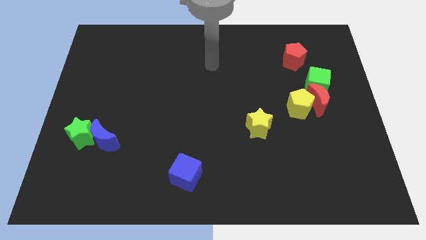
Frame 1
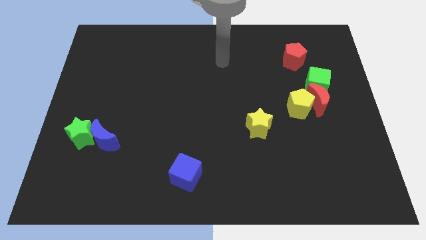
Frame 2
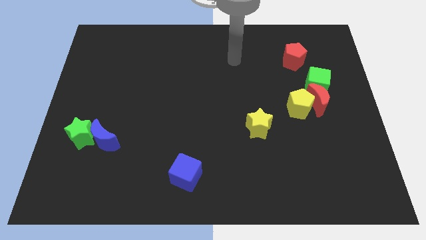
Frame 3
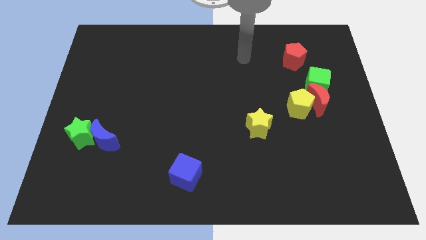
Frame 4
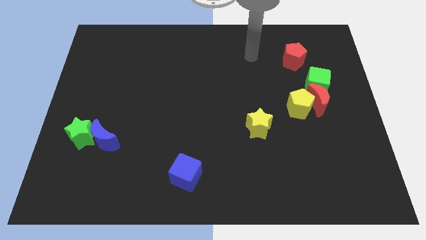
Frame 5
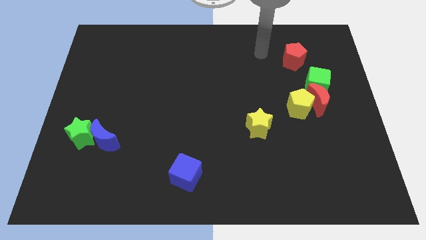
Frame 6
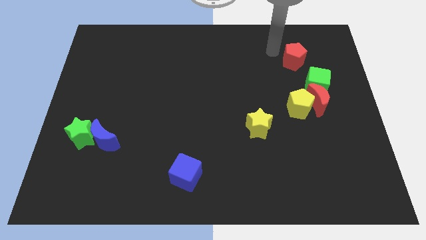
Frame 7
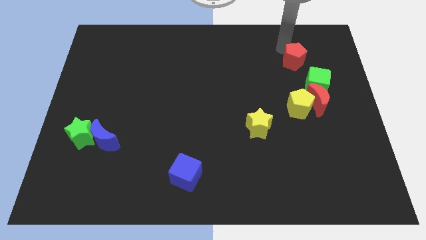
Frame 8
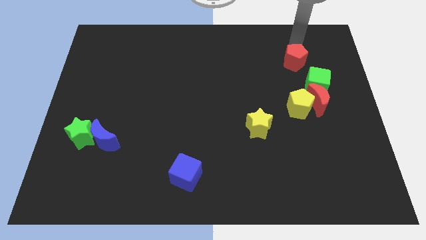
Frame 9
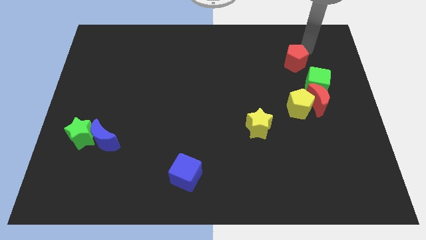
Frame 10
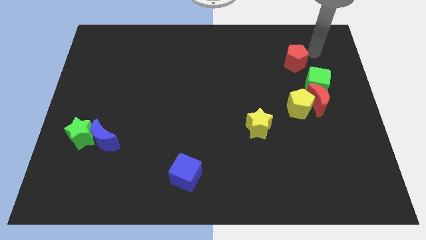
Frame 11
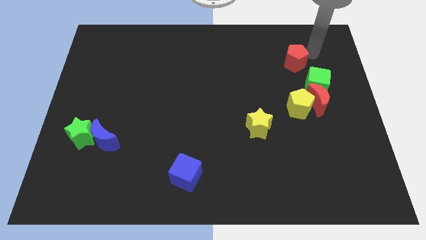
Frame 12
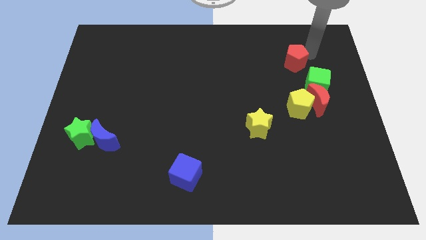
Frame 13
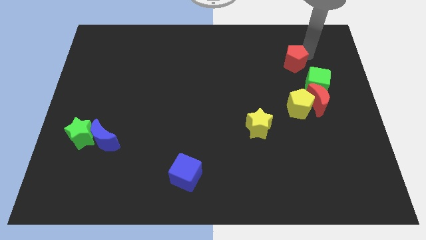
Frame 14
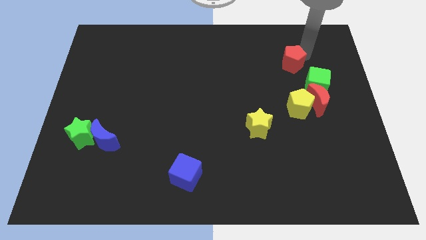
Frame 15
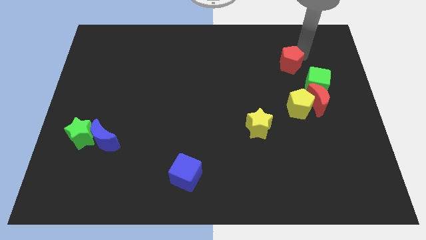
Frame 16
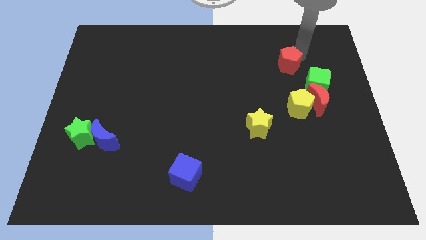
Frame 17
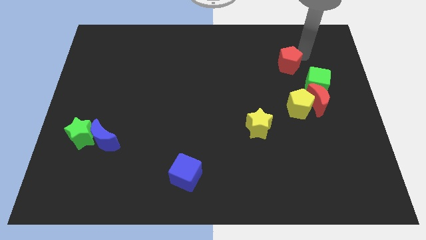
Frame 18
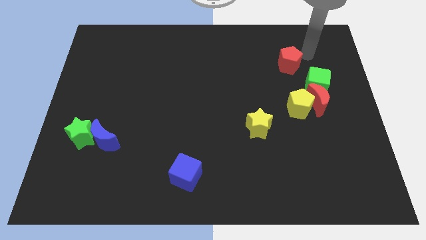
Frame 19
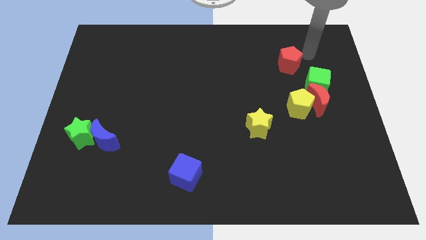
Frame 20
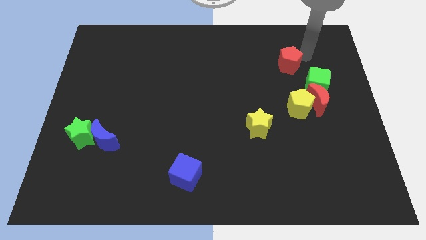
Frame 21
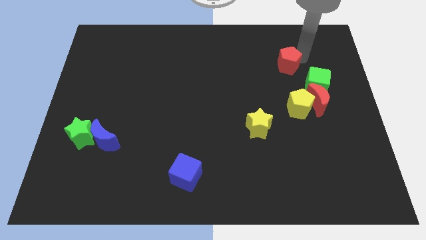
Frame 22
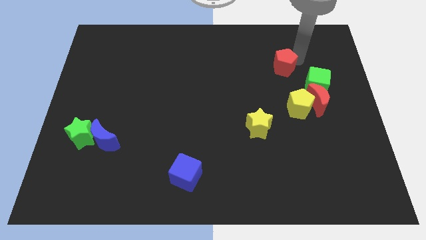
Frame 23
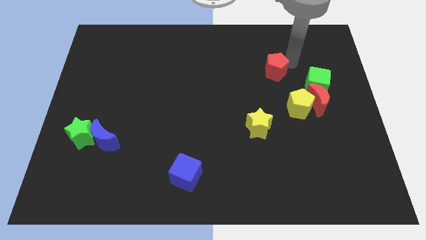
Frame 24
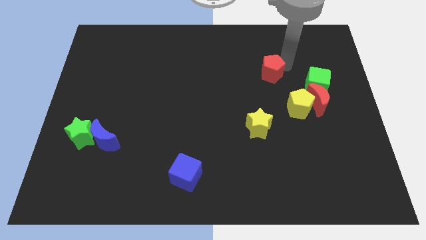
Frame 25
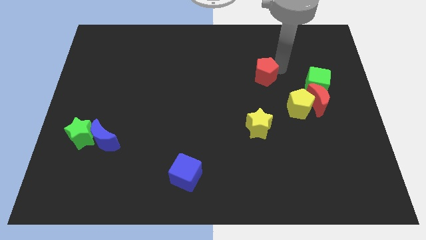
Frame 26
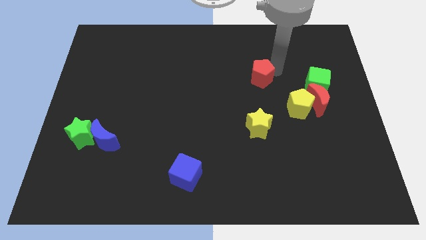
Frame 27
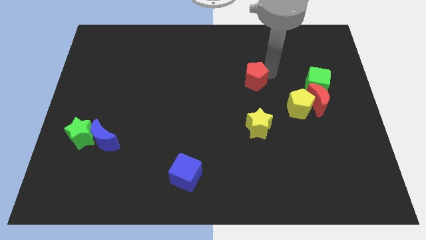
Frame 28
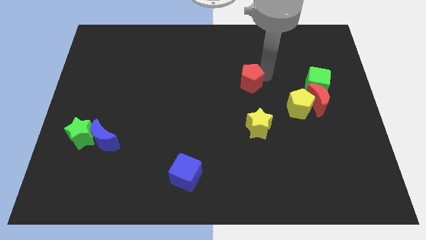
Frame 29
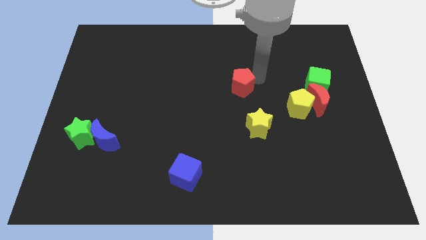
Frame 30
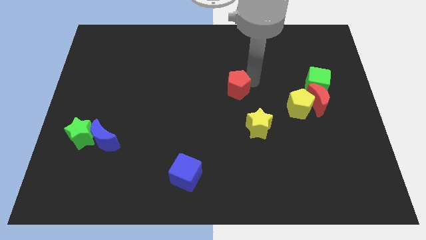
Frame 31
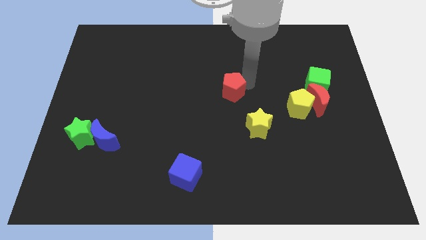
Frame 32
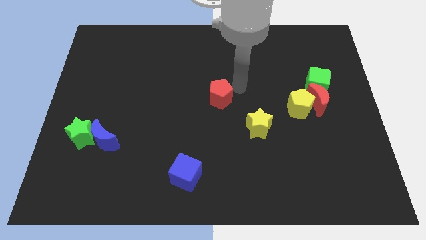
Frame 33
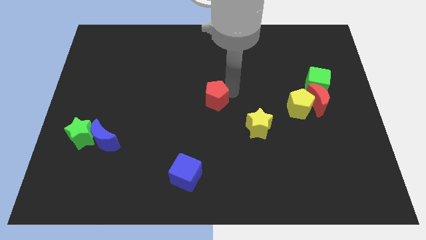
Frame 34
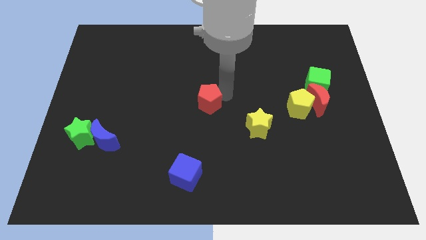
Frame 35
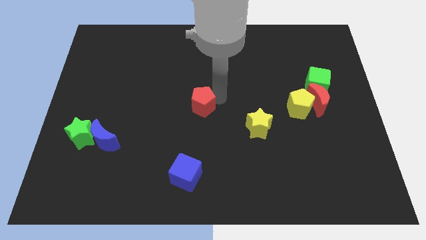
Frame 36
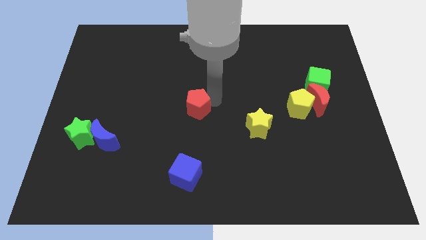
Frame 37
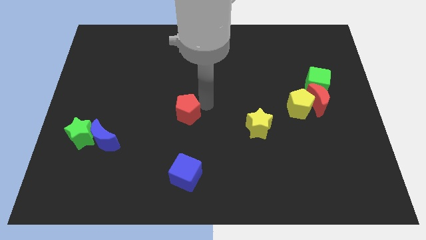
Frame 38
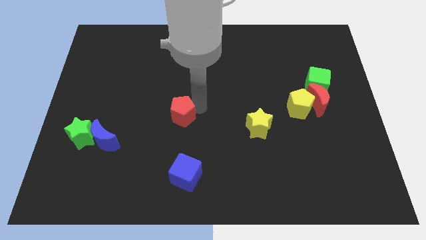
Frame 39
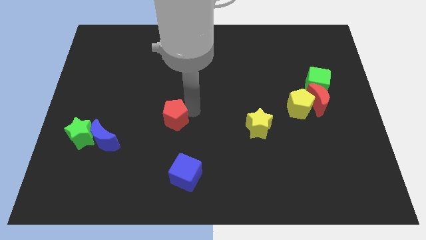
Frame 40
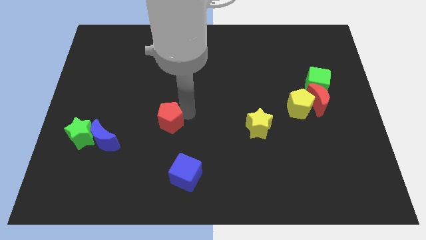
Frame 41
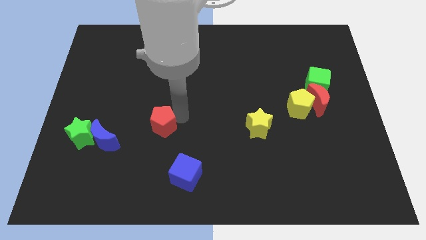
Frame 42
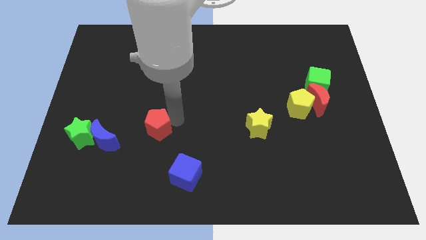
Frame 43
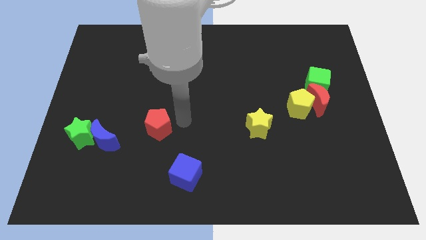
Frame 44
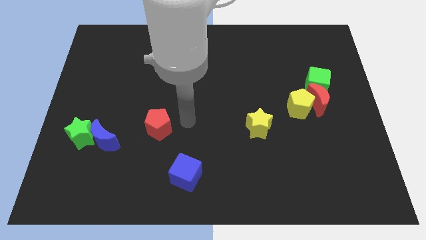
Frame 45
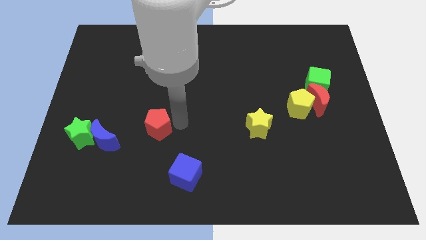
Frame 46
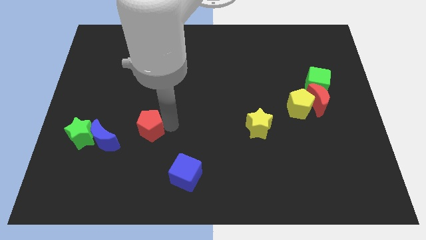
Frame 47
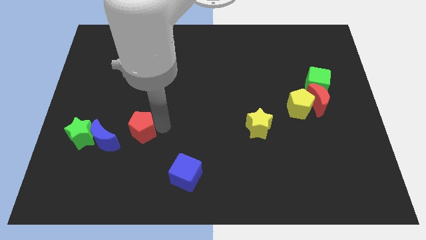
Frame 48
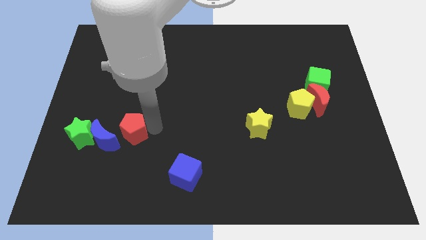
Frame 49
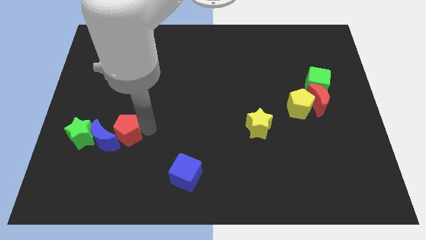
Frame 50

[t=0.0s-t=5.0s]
push the red pentagon to the blue moon

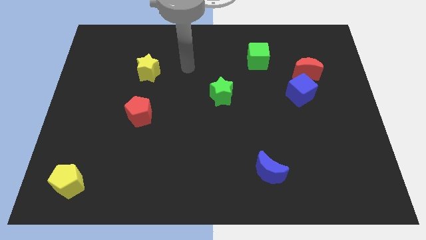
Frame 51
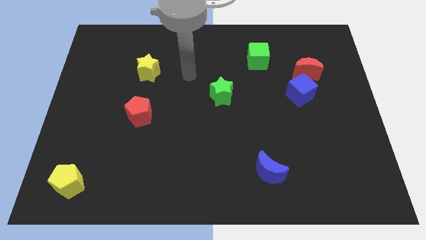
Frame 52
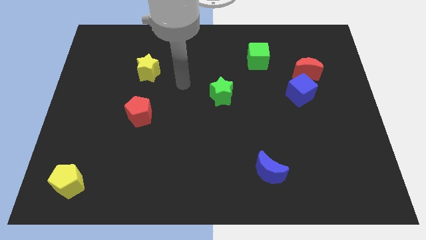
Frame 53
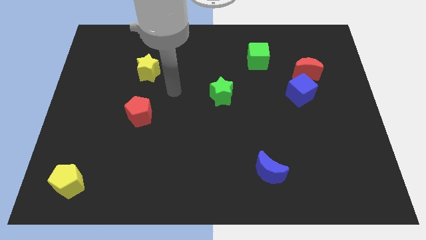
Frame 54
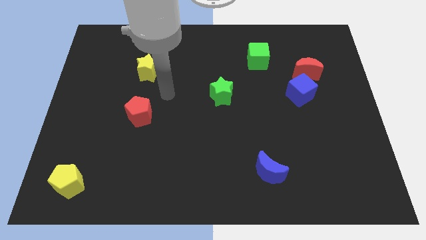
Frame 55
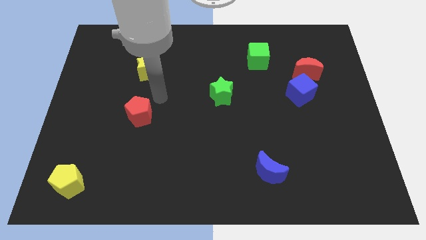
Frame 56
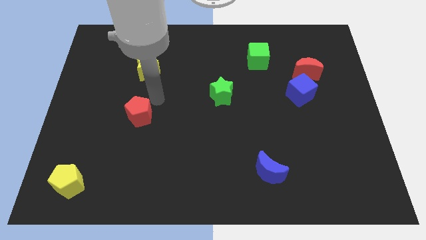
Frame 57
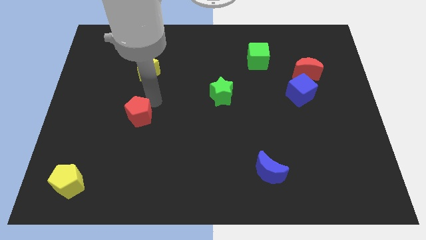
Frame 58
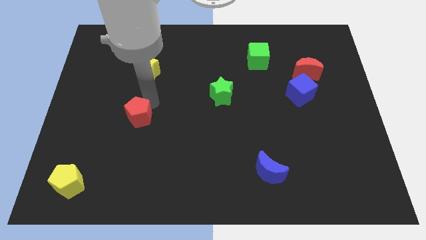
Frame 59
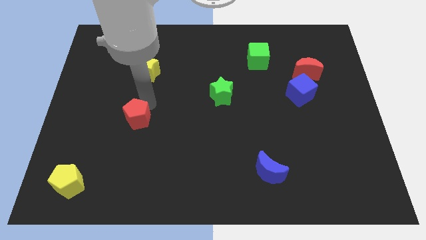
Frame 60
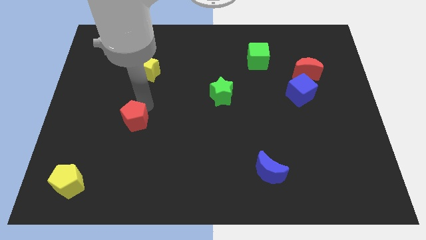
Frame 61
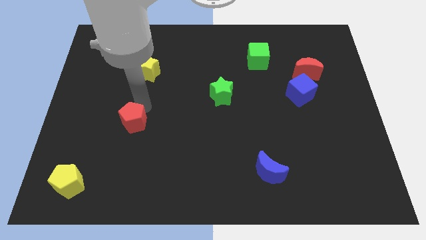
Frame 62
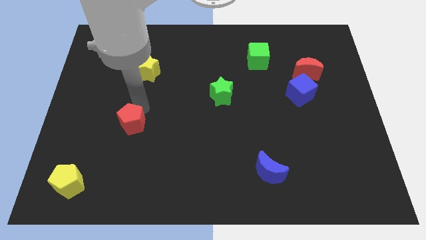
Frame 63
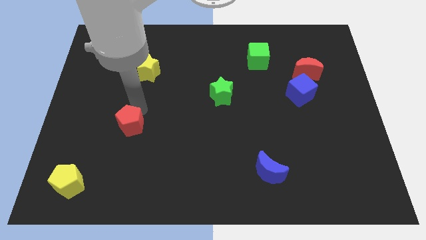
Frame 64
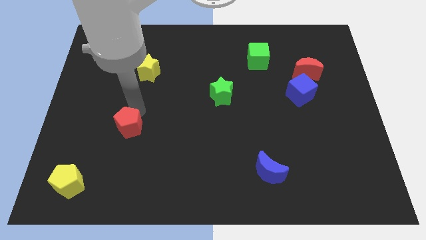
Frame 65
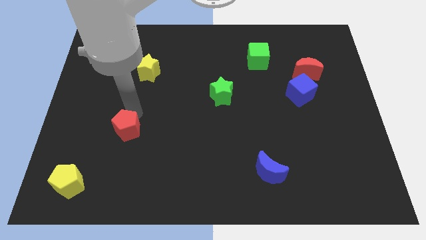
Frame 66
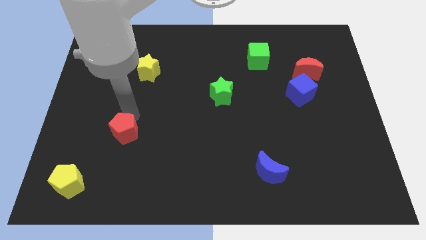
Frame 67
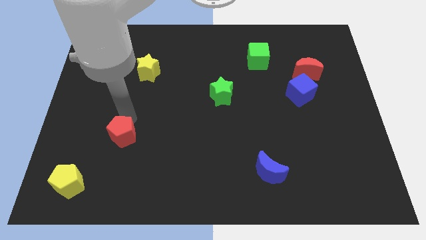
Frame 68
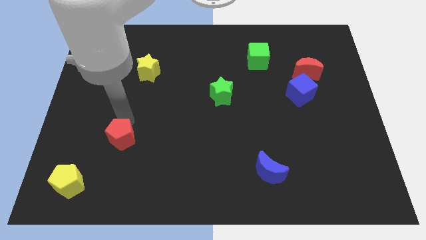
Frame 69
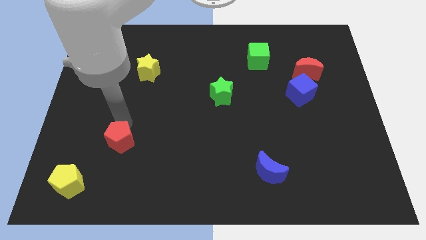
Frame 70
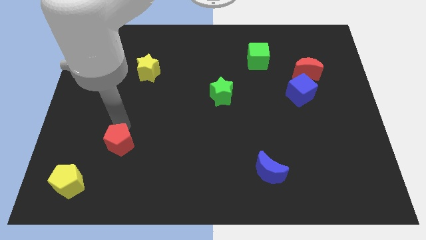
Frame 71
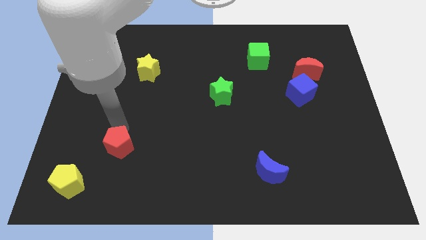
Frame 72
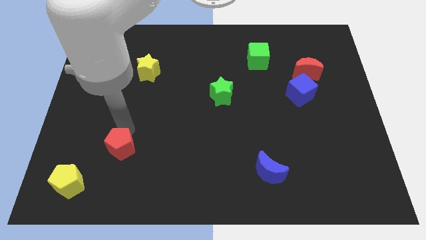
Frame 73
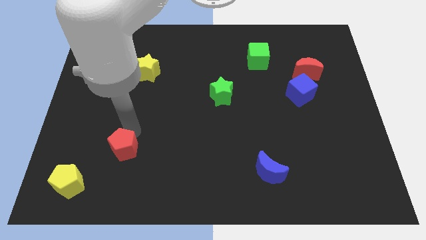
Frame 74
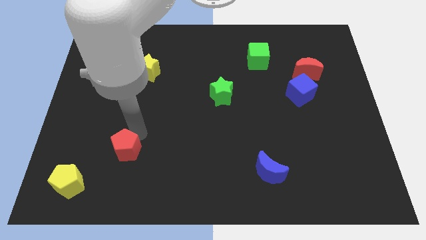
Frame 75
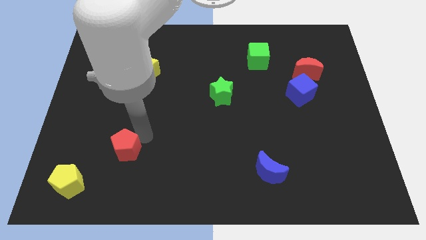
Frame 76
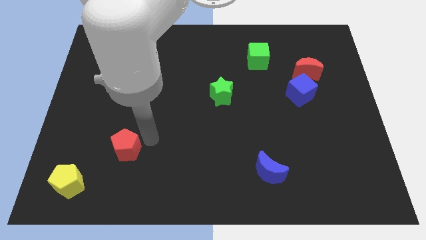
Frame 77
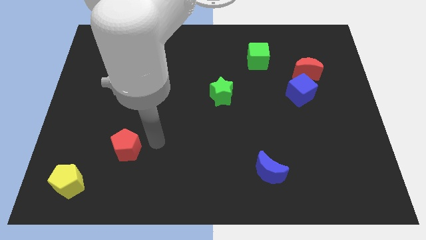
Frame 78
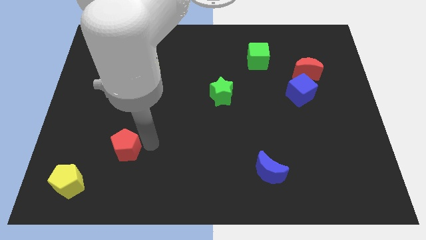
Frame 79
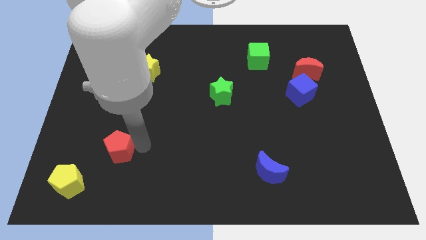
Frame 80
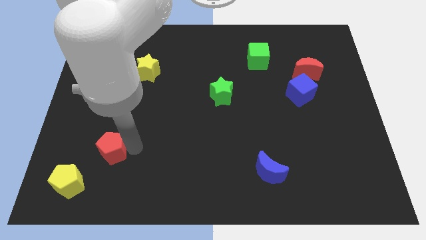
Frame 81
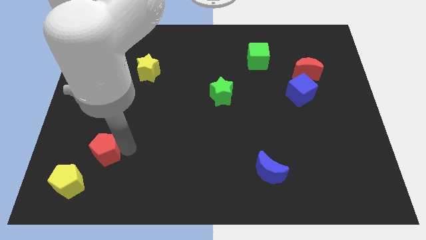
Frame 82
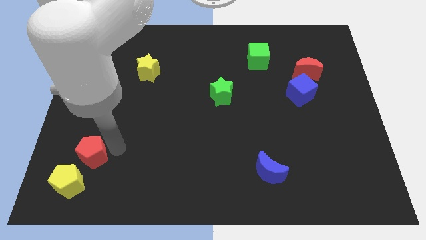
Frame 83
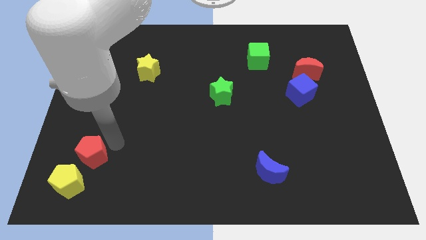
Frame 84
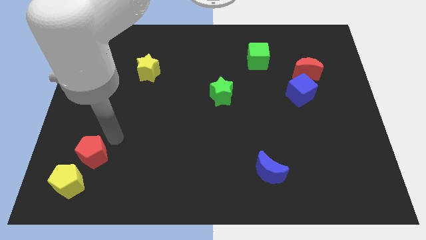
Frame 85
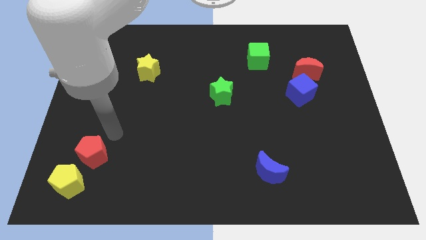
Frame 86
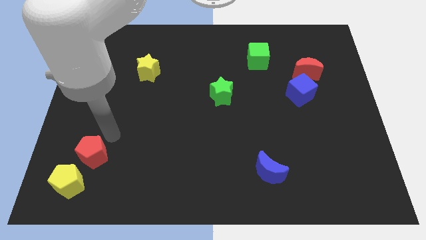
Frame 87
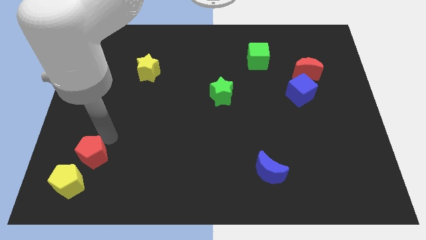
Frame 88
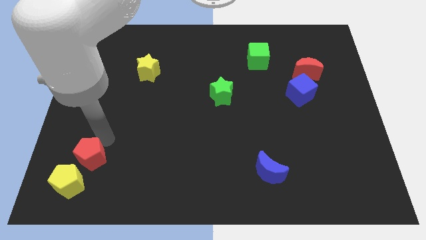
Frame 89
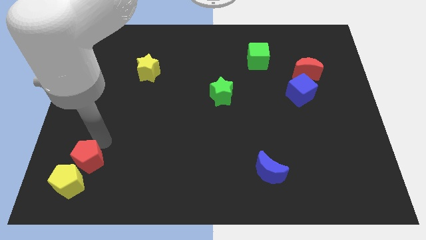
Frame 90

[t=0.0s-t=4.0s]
put the red pentagon to the yellow pentagon
